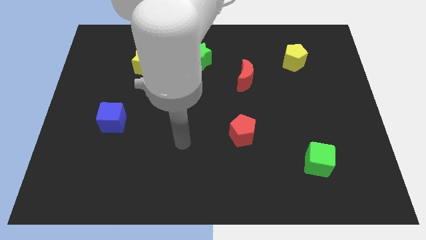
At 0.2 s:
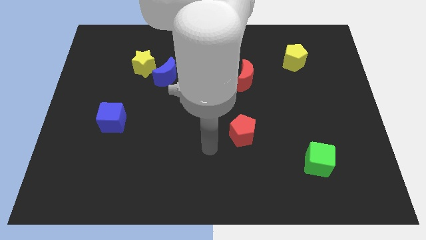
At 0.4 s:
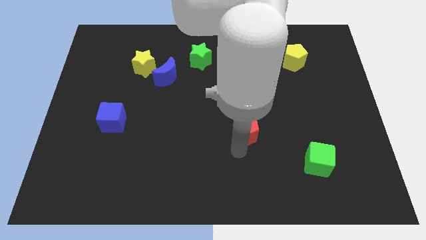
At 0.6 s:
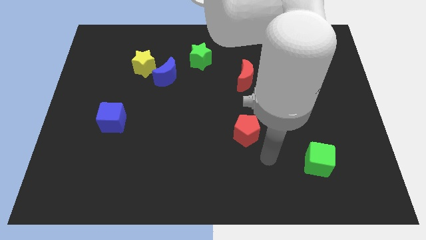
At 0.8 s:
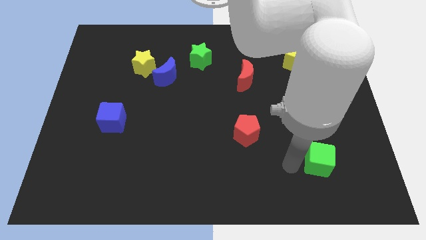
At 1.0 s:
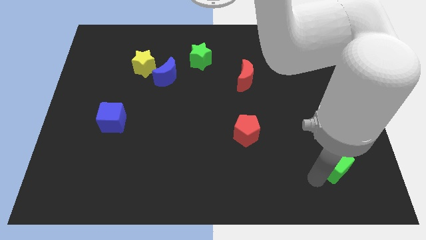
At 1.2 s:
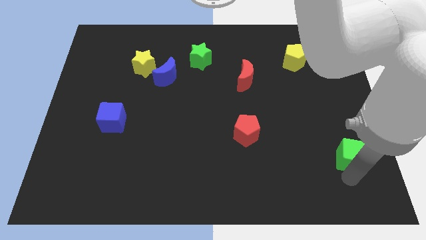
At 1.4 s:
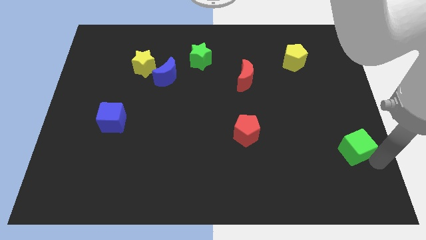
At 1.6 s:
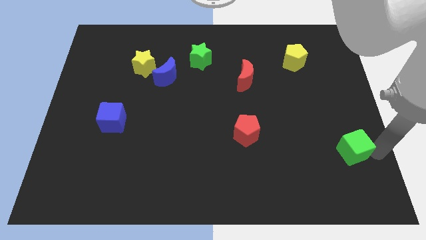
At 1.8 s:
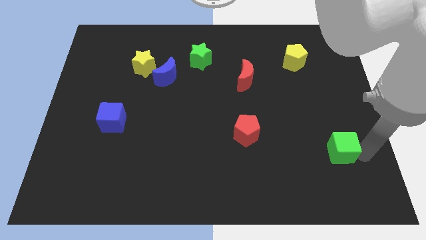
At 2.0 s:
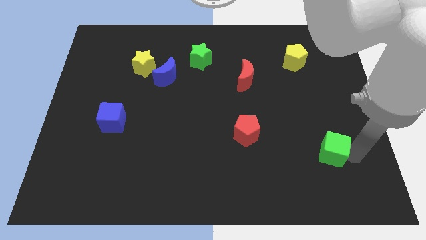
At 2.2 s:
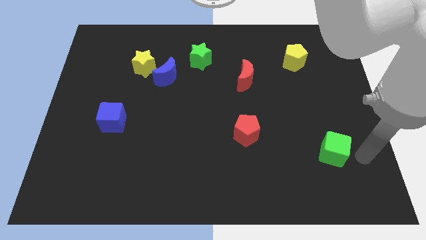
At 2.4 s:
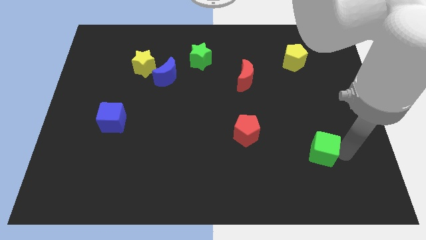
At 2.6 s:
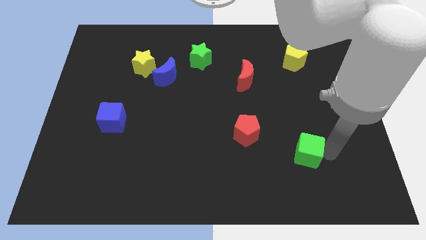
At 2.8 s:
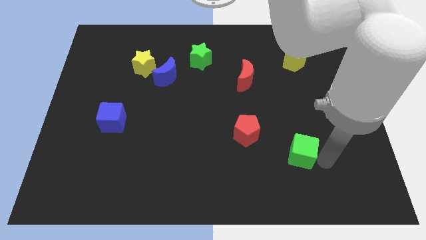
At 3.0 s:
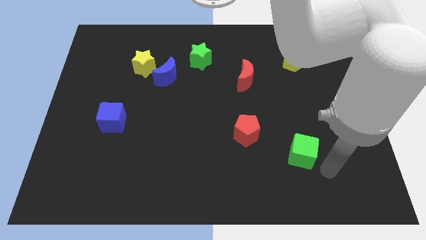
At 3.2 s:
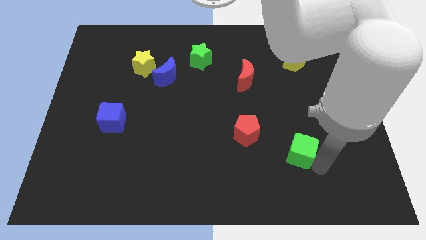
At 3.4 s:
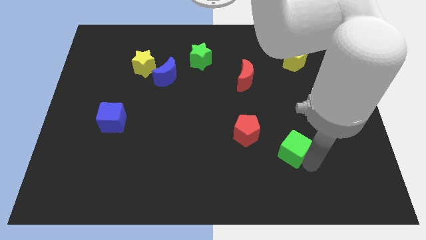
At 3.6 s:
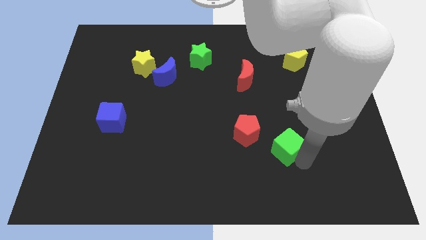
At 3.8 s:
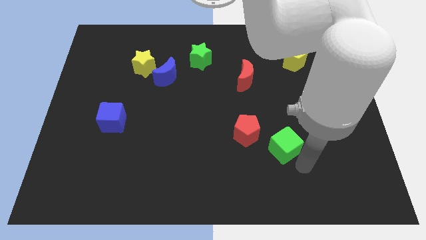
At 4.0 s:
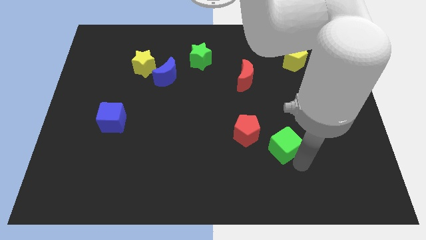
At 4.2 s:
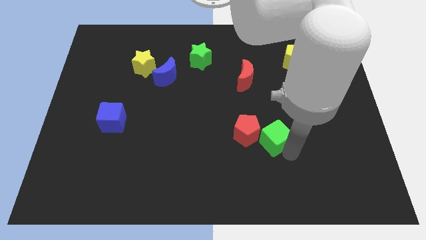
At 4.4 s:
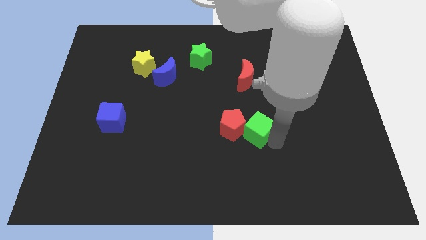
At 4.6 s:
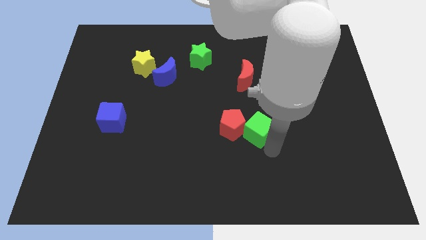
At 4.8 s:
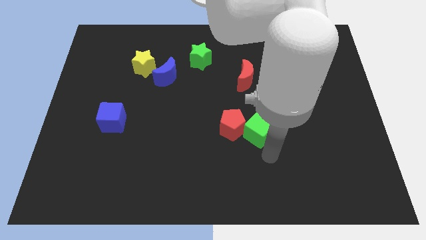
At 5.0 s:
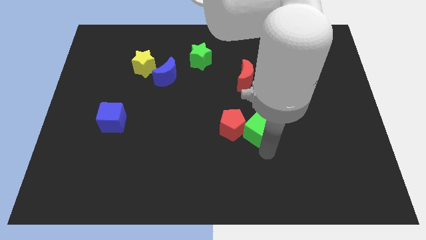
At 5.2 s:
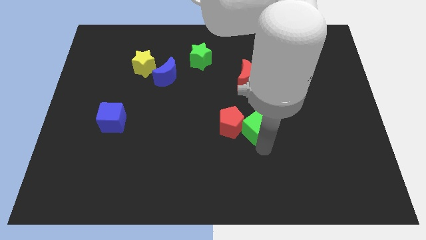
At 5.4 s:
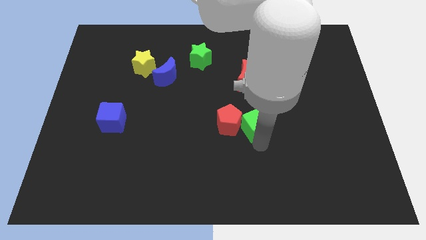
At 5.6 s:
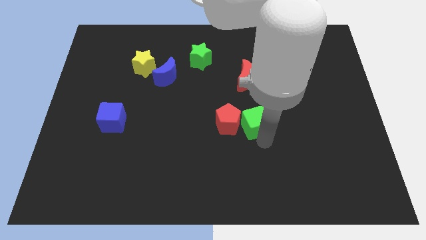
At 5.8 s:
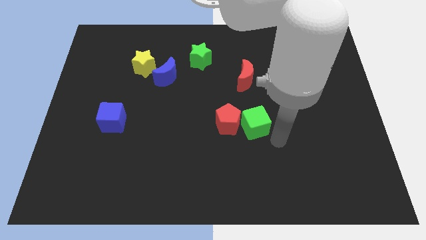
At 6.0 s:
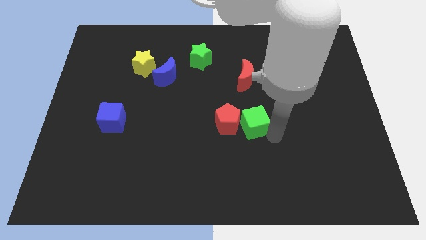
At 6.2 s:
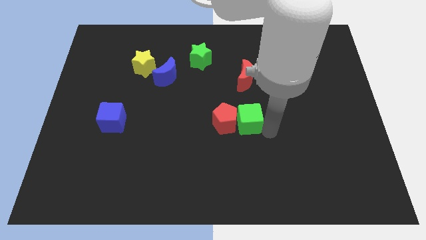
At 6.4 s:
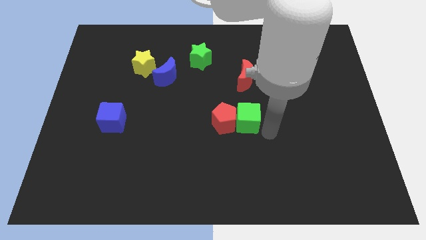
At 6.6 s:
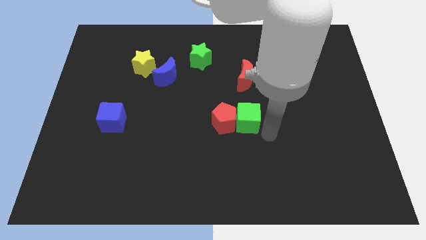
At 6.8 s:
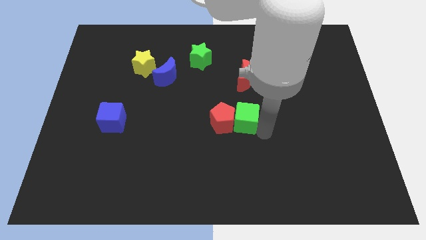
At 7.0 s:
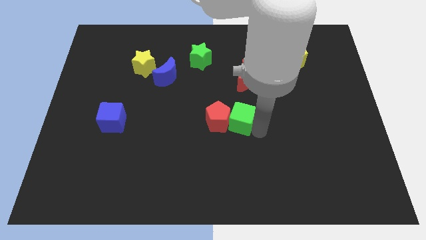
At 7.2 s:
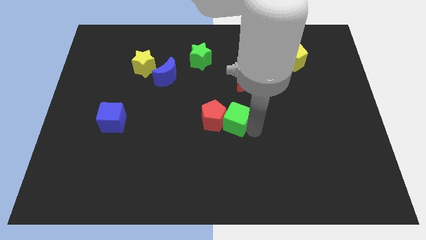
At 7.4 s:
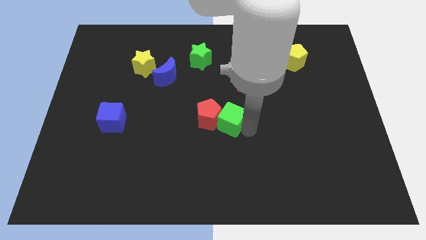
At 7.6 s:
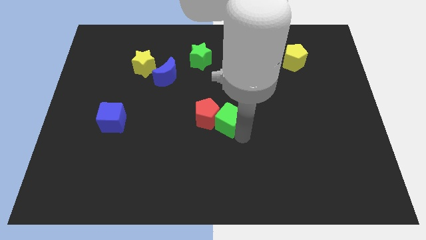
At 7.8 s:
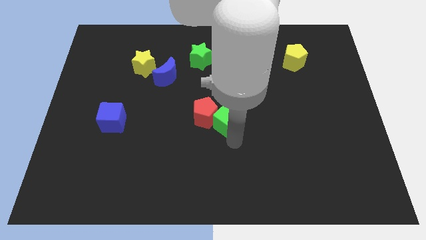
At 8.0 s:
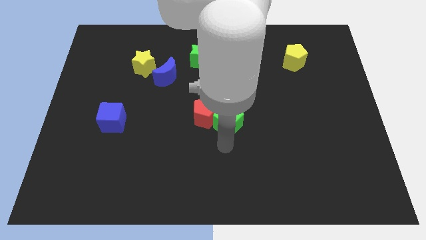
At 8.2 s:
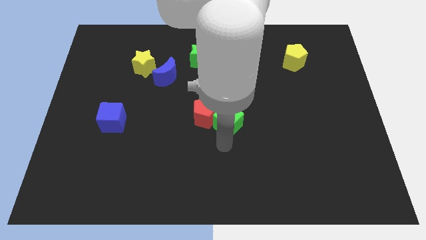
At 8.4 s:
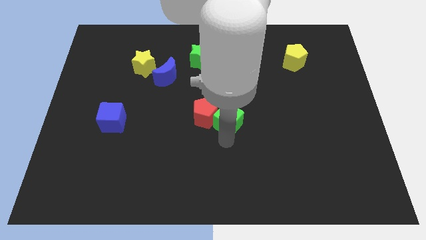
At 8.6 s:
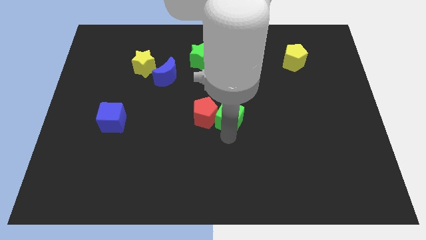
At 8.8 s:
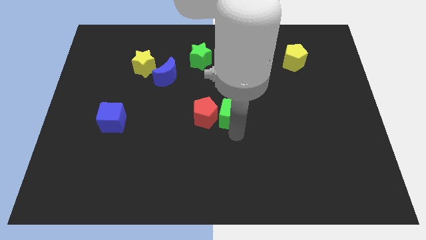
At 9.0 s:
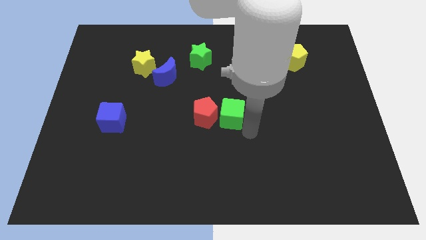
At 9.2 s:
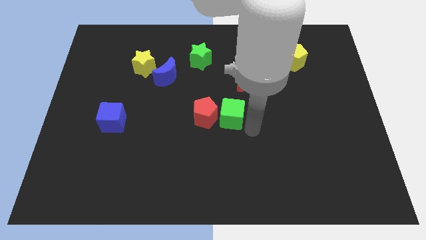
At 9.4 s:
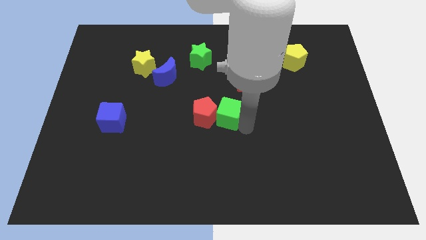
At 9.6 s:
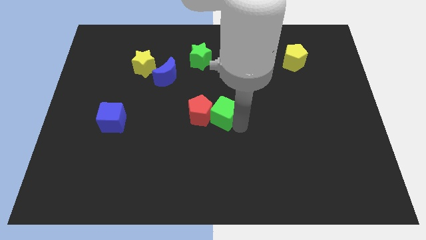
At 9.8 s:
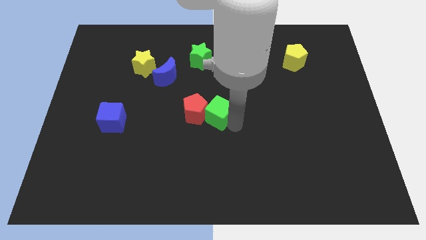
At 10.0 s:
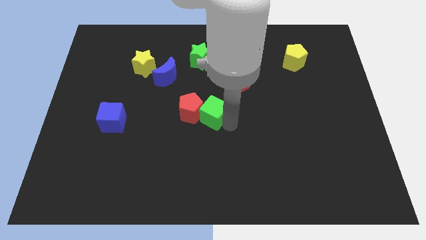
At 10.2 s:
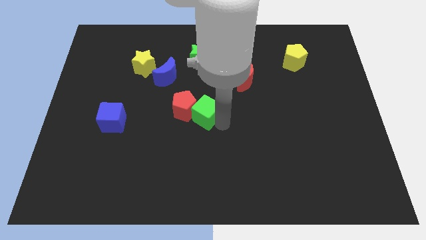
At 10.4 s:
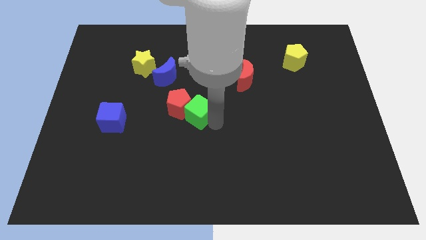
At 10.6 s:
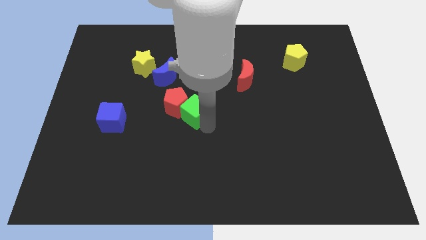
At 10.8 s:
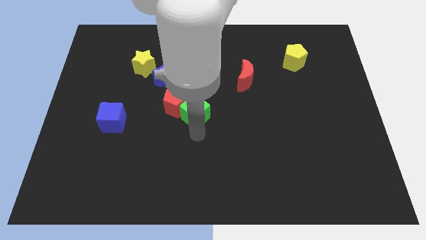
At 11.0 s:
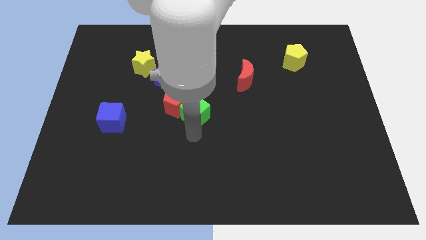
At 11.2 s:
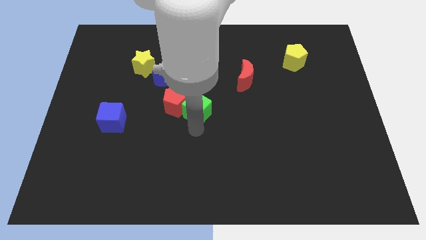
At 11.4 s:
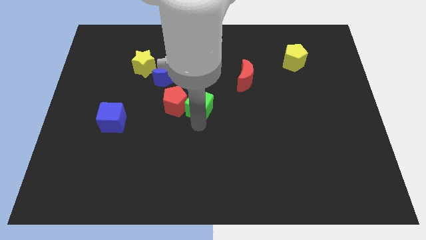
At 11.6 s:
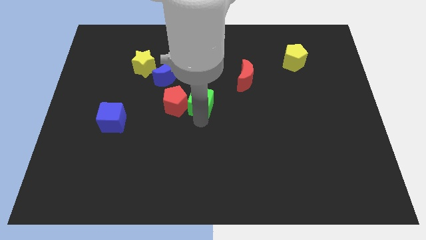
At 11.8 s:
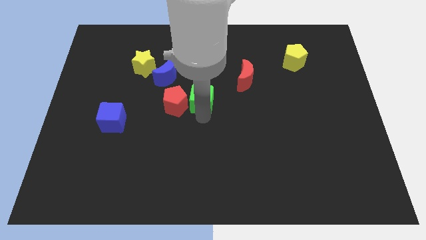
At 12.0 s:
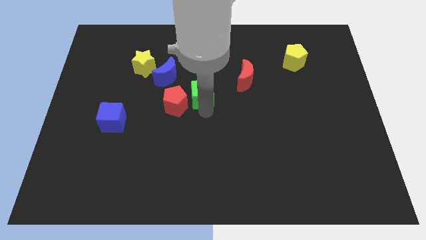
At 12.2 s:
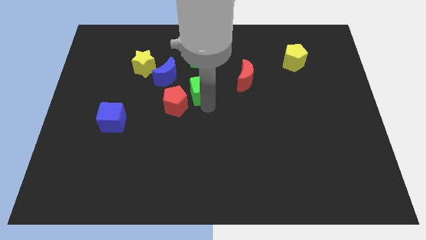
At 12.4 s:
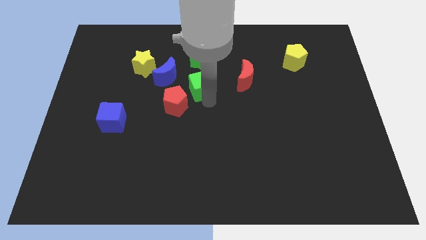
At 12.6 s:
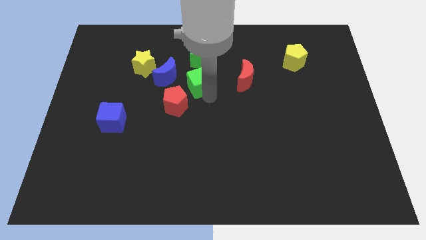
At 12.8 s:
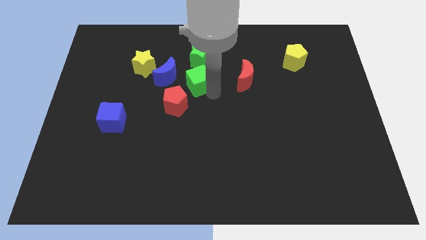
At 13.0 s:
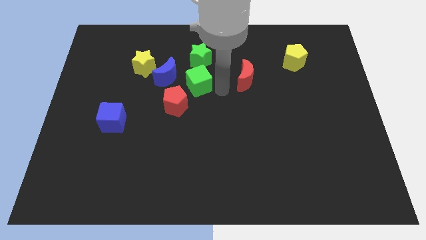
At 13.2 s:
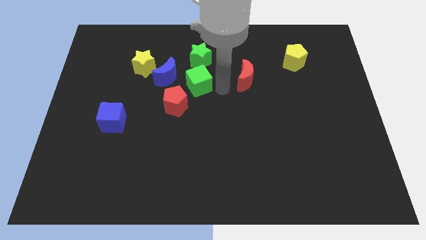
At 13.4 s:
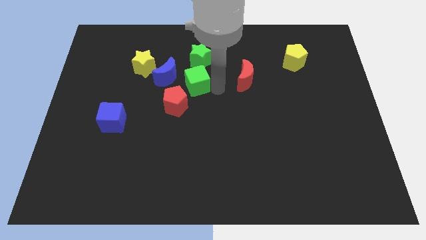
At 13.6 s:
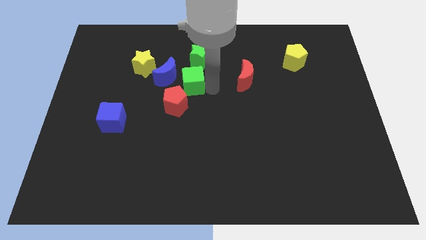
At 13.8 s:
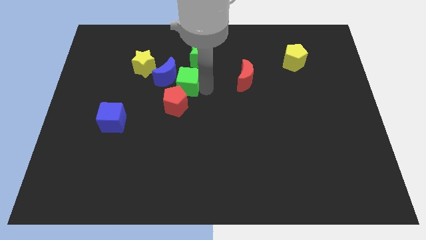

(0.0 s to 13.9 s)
put the green cube to the blue moon

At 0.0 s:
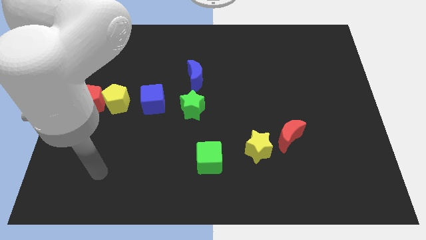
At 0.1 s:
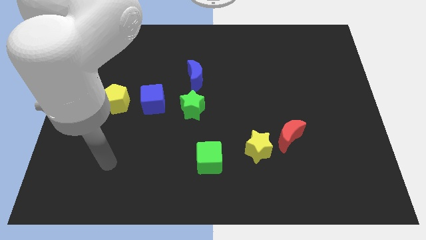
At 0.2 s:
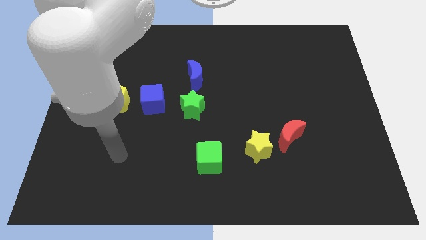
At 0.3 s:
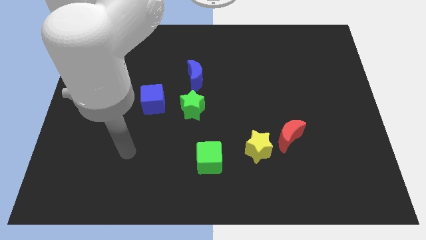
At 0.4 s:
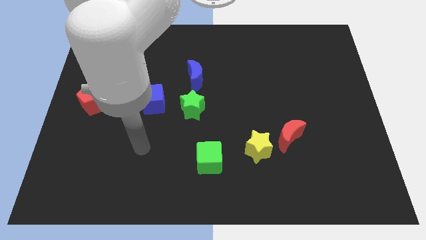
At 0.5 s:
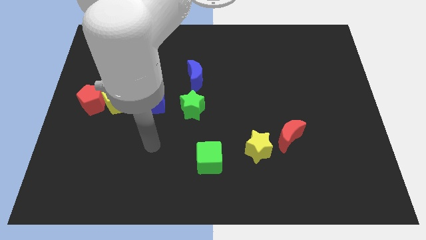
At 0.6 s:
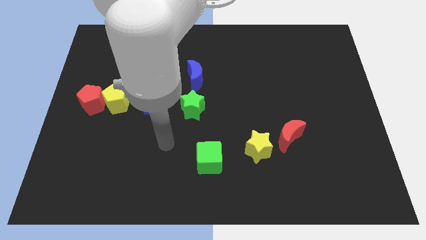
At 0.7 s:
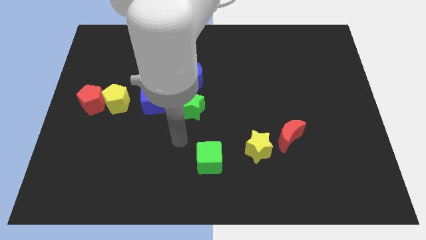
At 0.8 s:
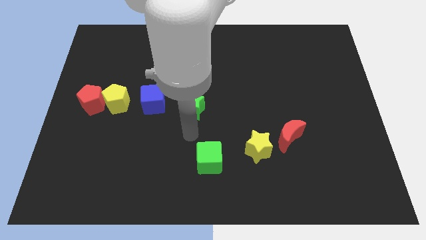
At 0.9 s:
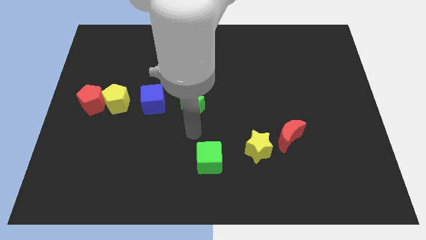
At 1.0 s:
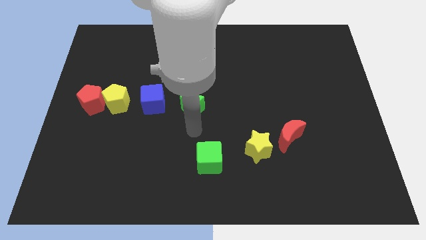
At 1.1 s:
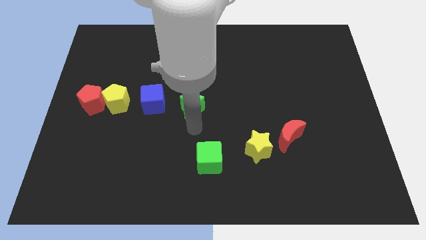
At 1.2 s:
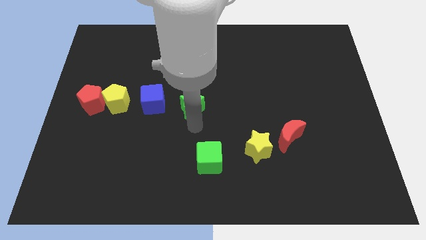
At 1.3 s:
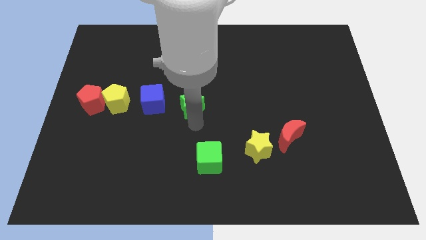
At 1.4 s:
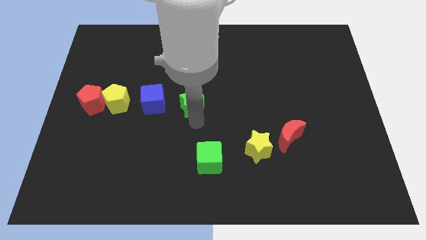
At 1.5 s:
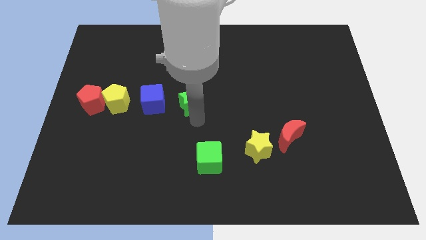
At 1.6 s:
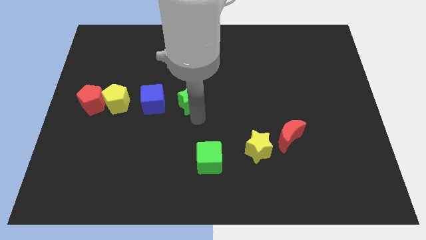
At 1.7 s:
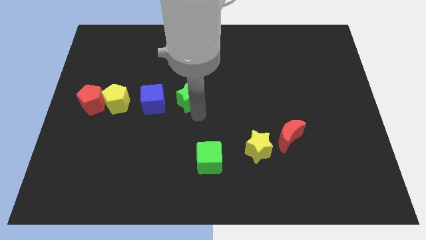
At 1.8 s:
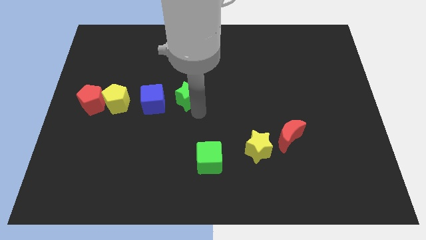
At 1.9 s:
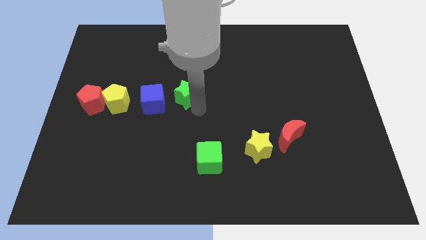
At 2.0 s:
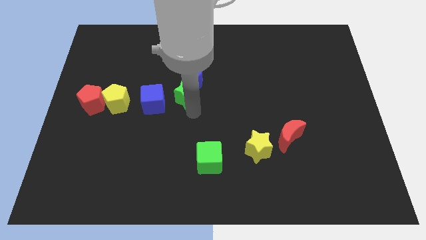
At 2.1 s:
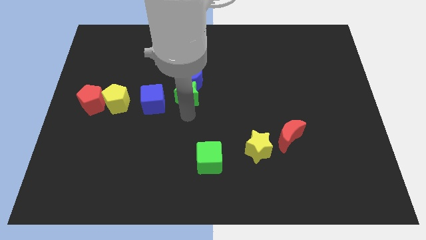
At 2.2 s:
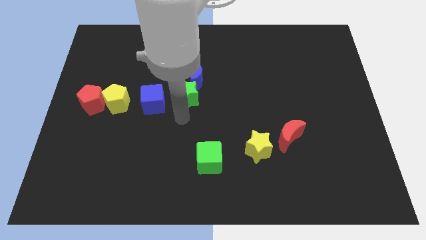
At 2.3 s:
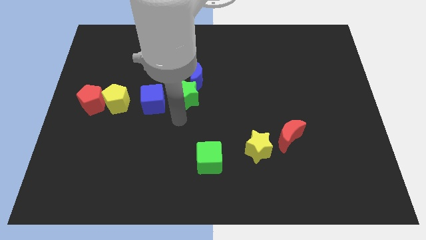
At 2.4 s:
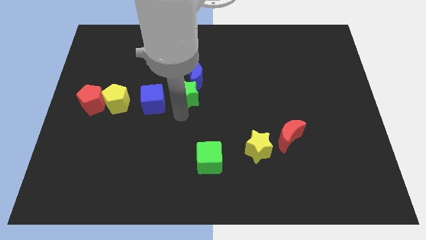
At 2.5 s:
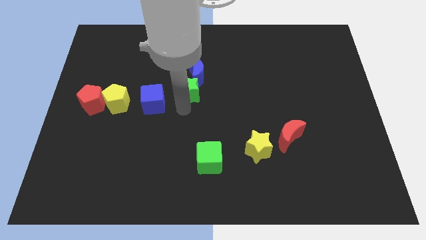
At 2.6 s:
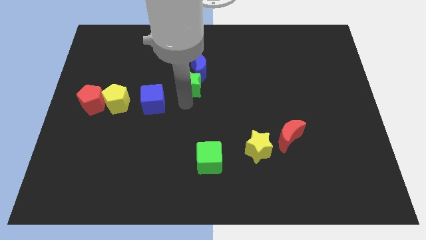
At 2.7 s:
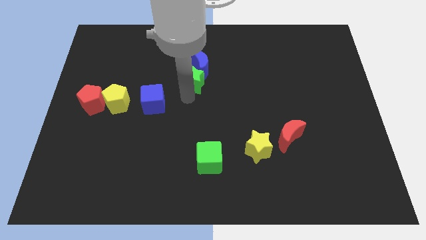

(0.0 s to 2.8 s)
put the green star to the blue moon
